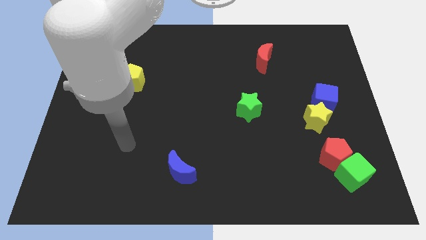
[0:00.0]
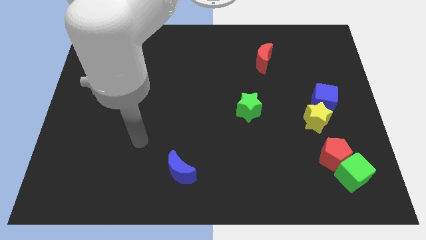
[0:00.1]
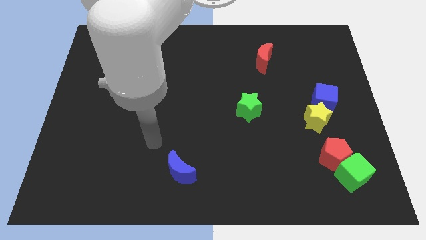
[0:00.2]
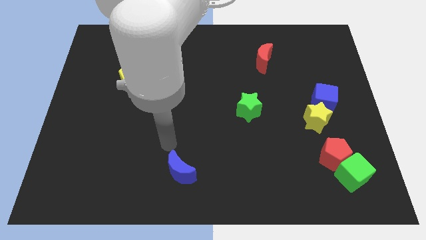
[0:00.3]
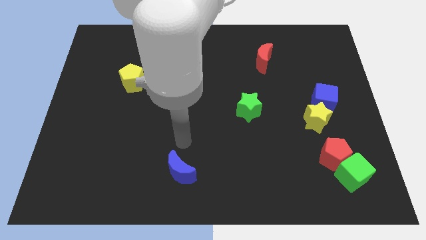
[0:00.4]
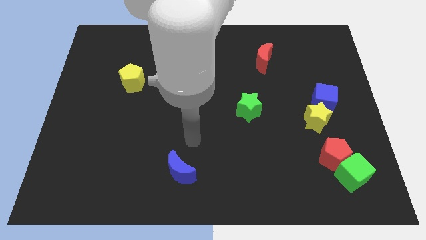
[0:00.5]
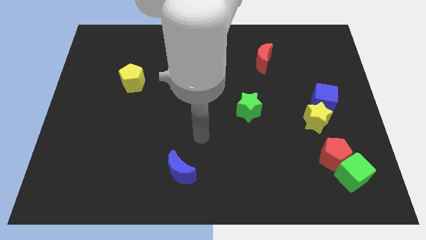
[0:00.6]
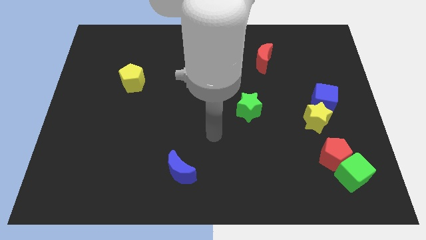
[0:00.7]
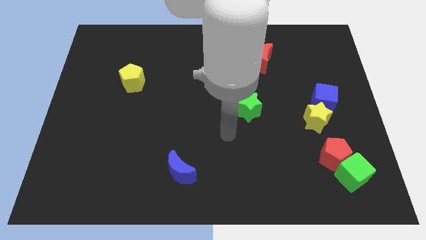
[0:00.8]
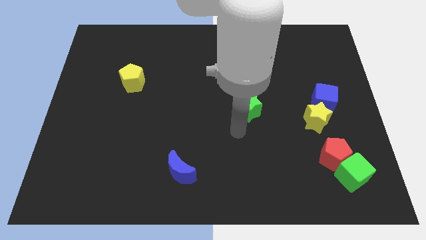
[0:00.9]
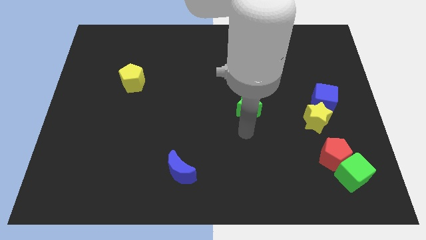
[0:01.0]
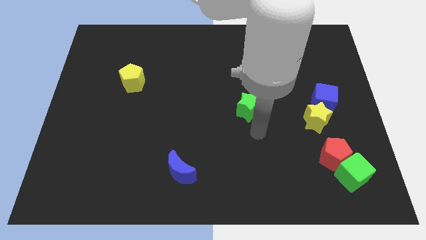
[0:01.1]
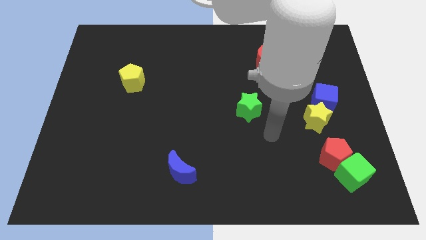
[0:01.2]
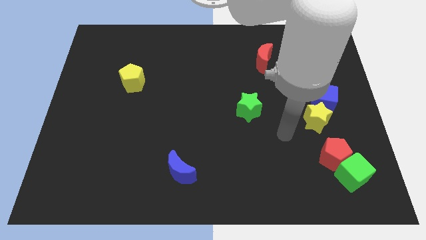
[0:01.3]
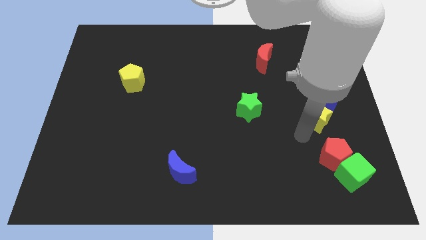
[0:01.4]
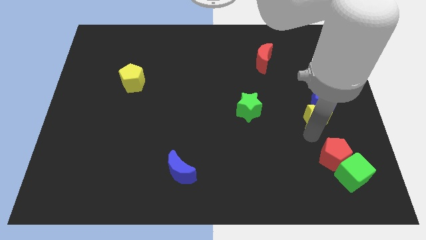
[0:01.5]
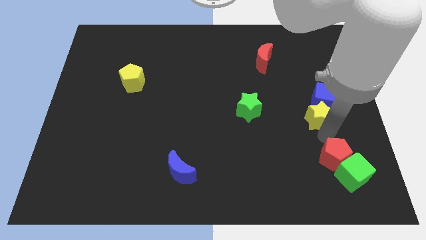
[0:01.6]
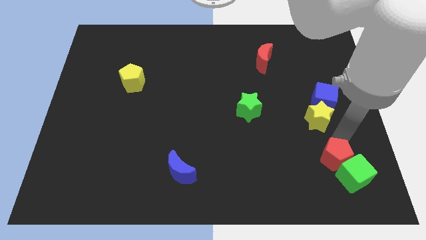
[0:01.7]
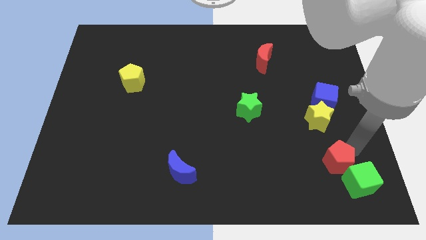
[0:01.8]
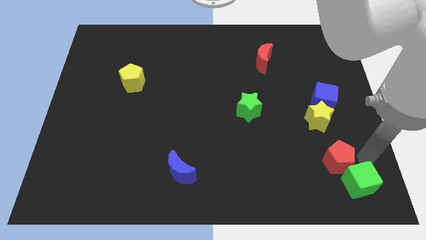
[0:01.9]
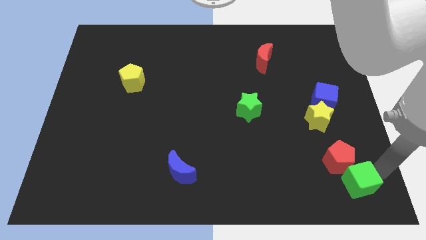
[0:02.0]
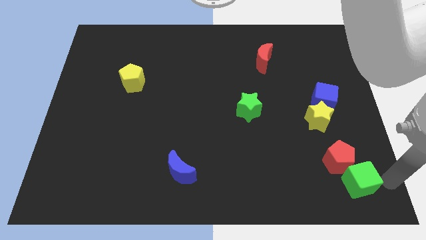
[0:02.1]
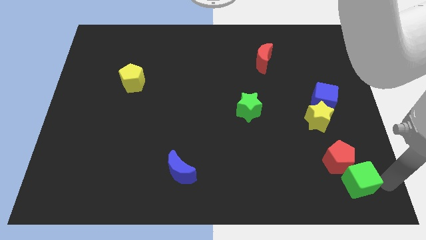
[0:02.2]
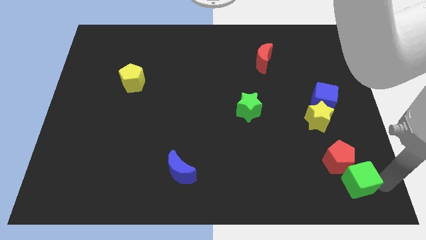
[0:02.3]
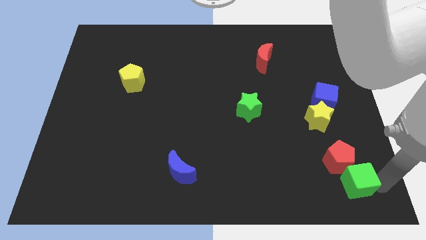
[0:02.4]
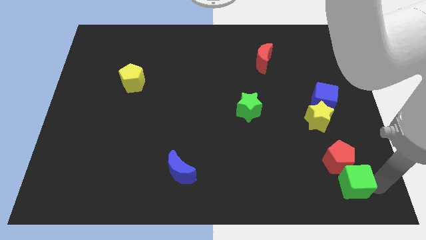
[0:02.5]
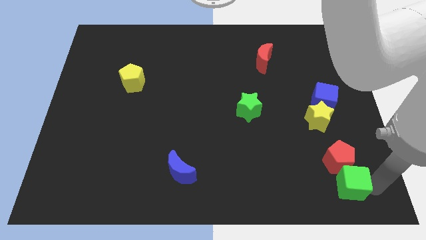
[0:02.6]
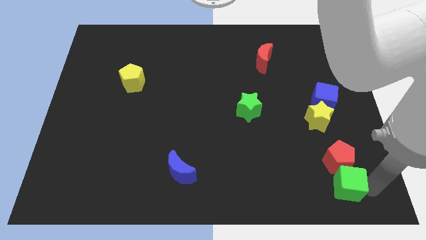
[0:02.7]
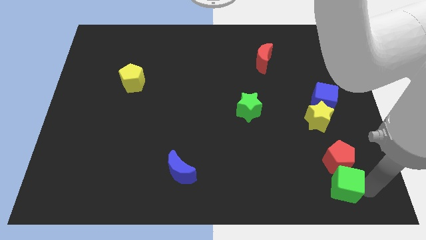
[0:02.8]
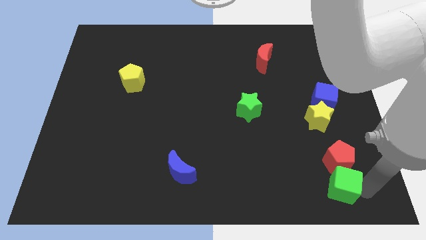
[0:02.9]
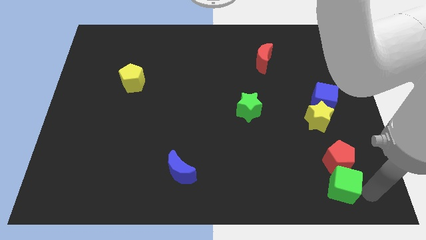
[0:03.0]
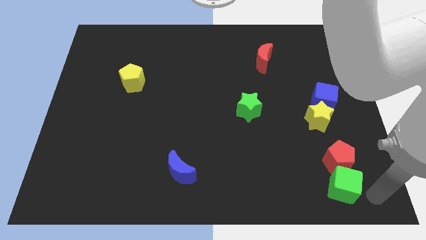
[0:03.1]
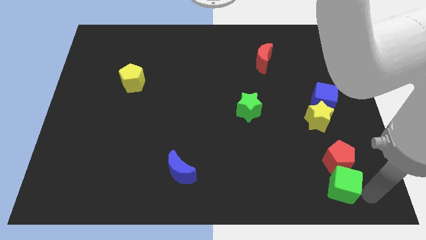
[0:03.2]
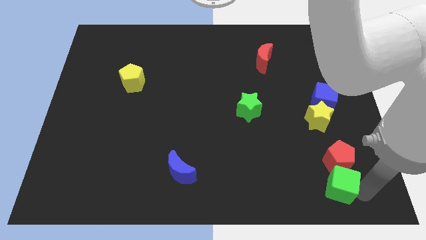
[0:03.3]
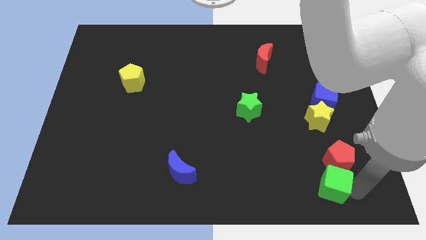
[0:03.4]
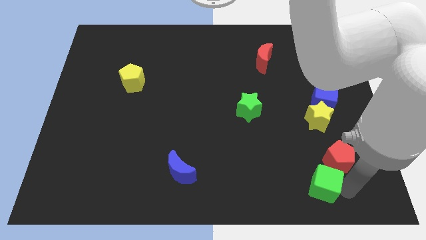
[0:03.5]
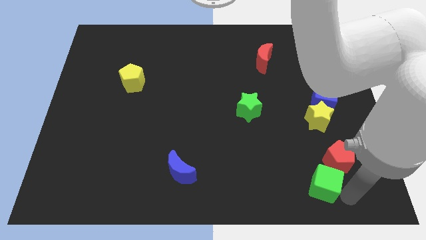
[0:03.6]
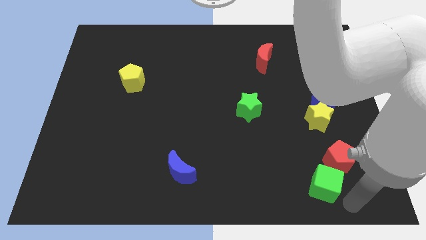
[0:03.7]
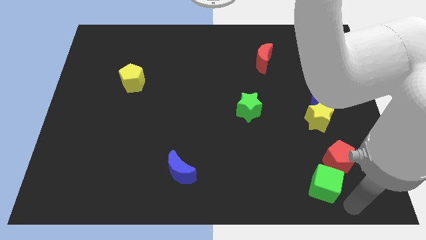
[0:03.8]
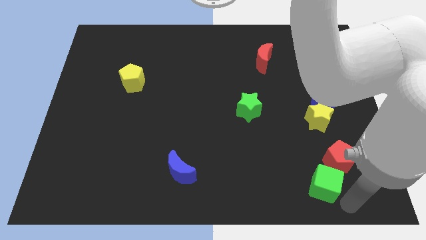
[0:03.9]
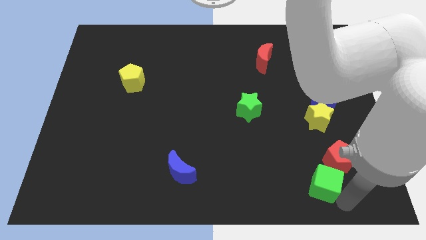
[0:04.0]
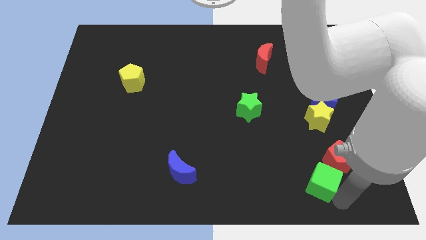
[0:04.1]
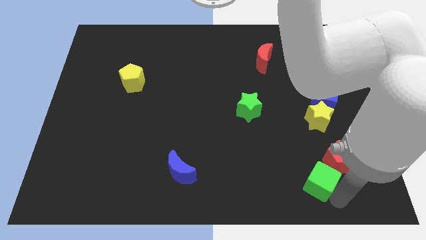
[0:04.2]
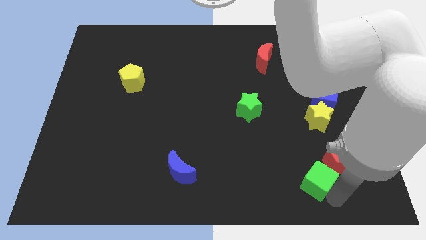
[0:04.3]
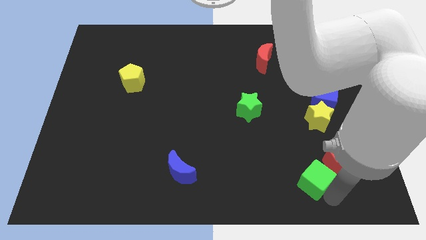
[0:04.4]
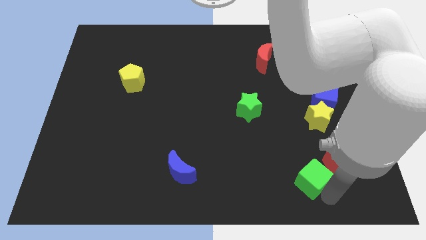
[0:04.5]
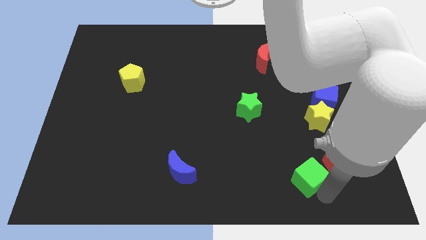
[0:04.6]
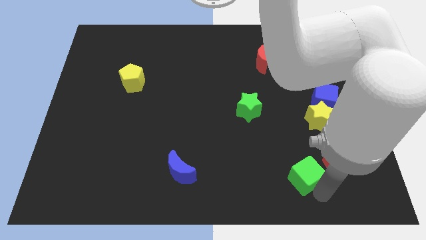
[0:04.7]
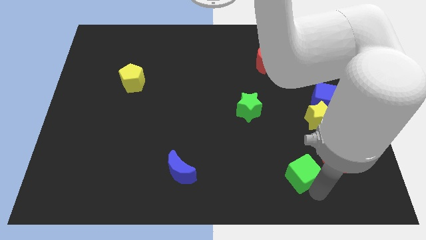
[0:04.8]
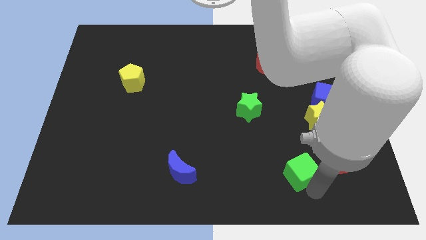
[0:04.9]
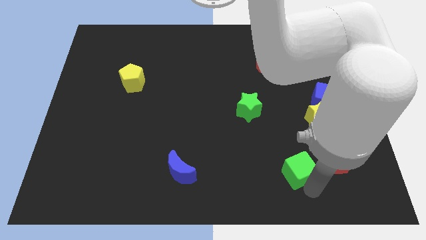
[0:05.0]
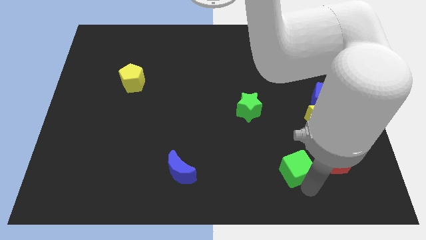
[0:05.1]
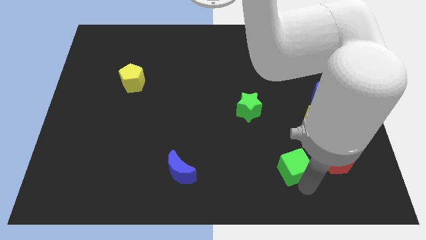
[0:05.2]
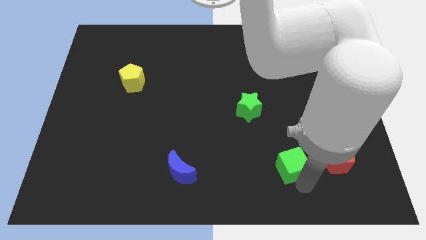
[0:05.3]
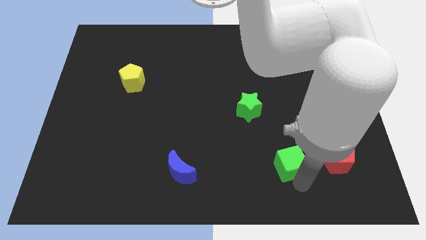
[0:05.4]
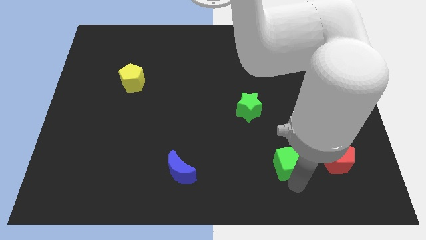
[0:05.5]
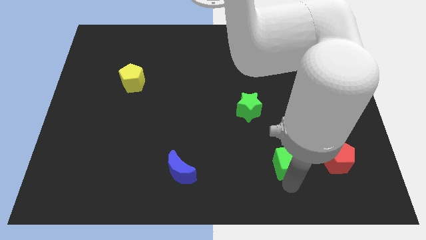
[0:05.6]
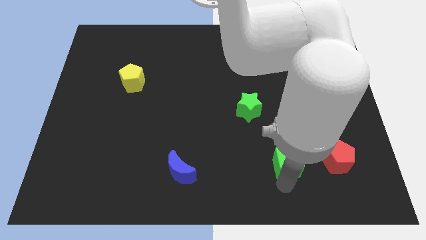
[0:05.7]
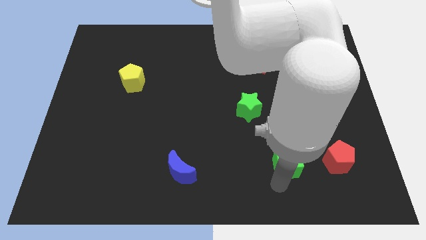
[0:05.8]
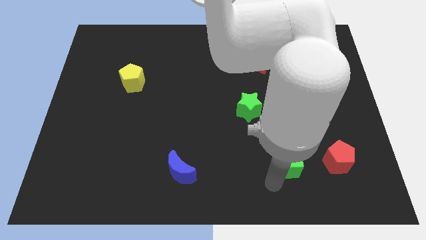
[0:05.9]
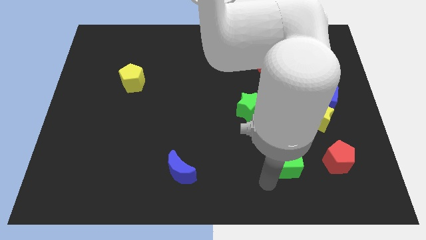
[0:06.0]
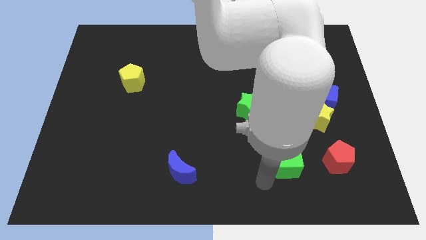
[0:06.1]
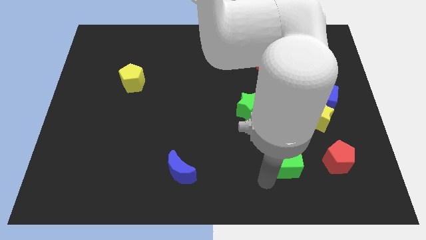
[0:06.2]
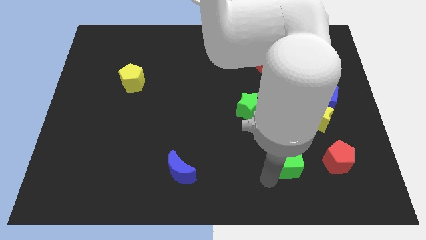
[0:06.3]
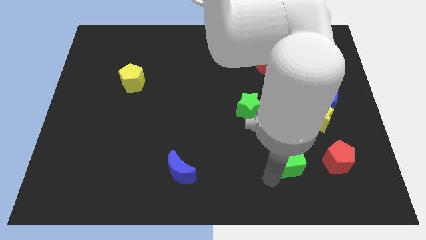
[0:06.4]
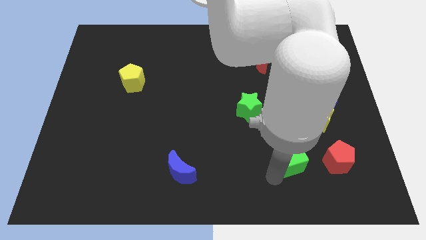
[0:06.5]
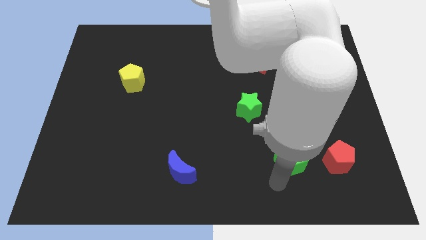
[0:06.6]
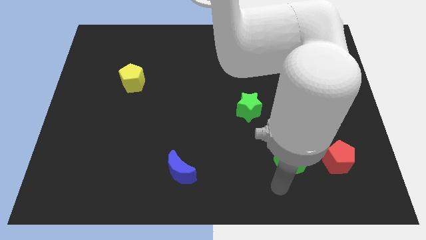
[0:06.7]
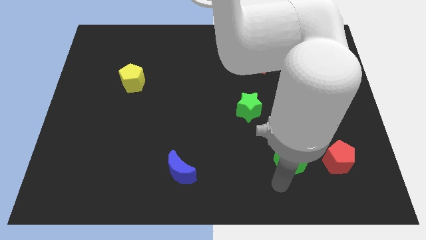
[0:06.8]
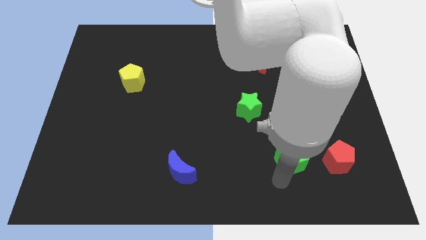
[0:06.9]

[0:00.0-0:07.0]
put the green cube to the bottom left of the yellow star

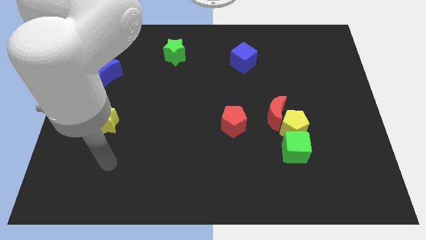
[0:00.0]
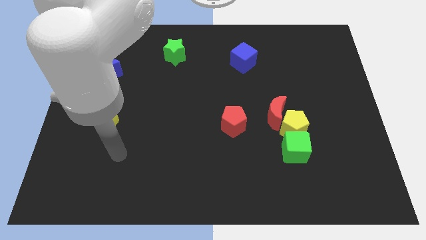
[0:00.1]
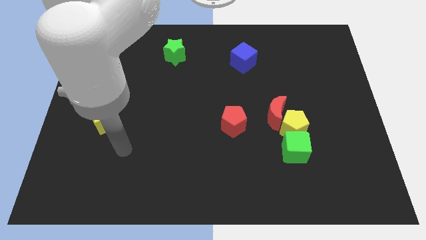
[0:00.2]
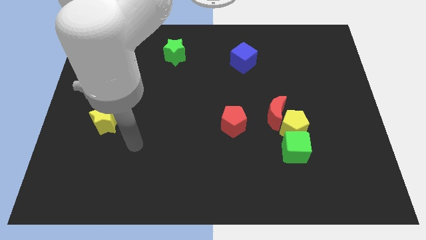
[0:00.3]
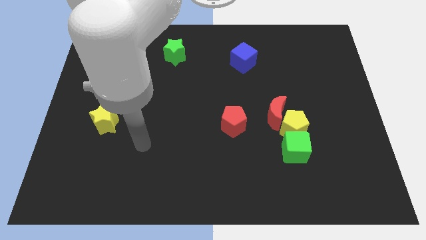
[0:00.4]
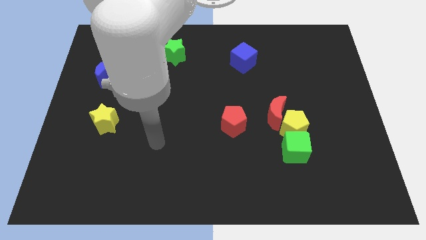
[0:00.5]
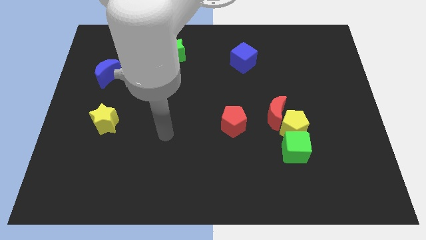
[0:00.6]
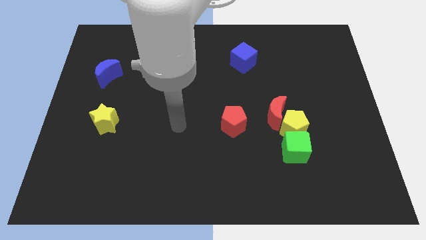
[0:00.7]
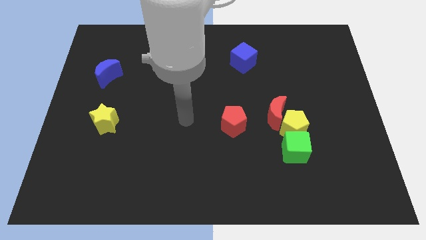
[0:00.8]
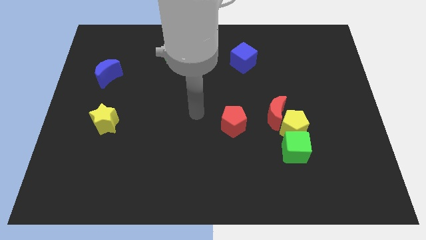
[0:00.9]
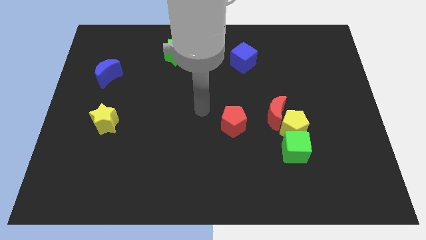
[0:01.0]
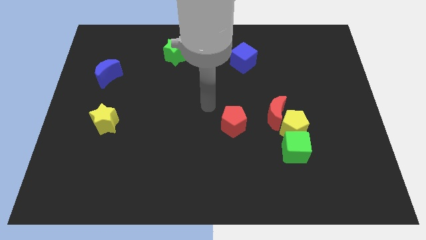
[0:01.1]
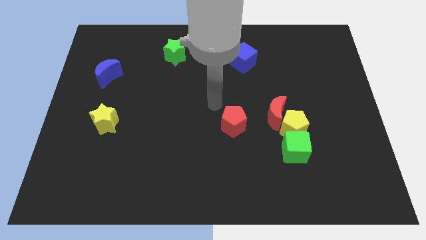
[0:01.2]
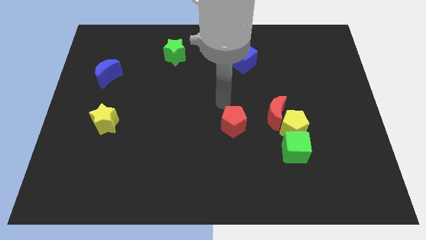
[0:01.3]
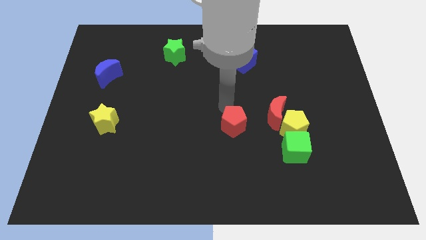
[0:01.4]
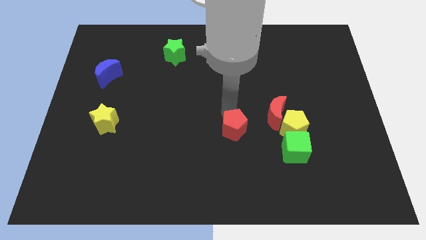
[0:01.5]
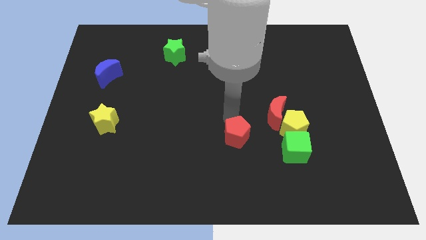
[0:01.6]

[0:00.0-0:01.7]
move the red pentagon to the left of the green cube
